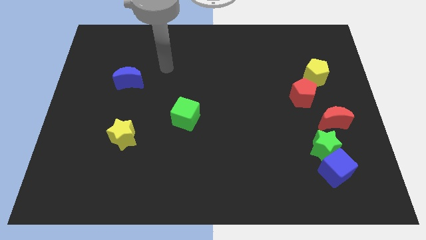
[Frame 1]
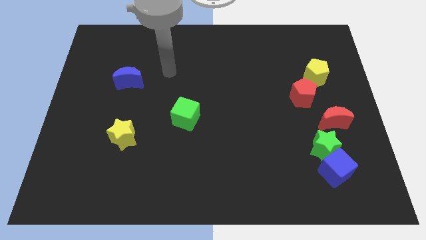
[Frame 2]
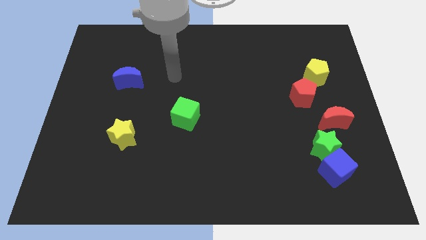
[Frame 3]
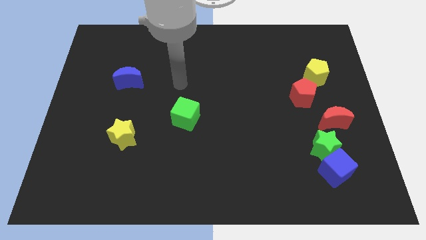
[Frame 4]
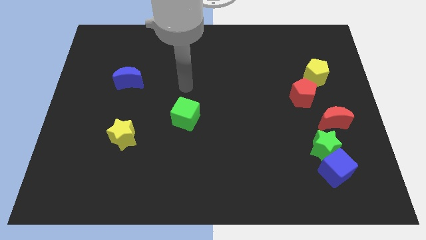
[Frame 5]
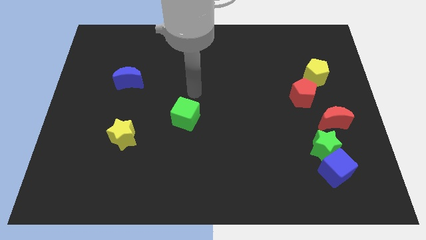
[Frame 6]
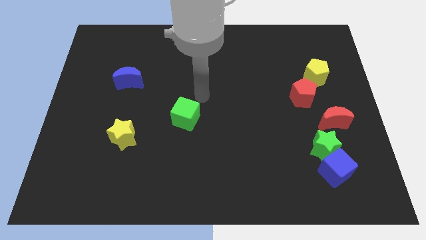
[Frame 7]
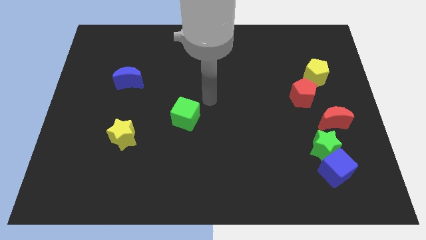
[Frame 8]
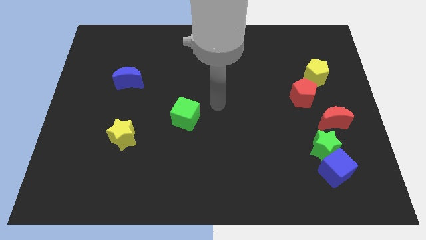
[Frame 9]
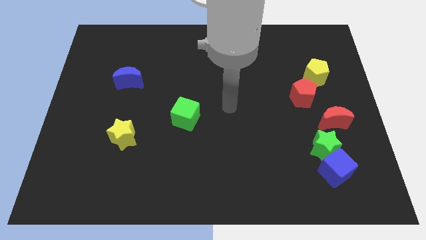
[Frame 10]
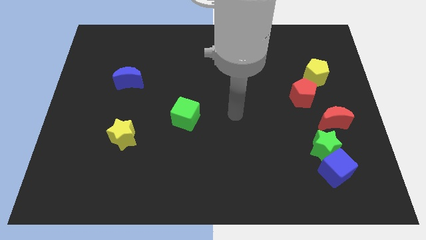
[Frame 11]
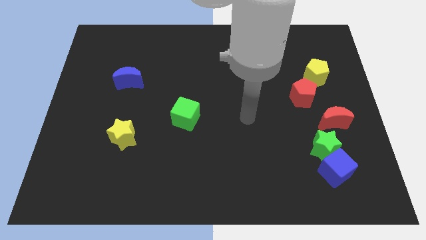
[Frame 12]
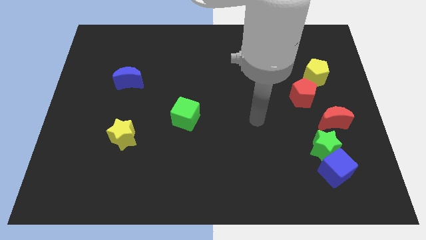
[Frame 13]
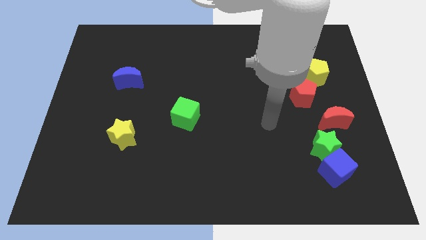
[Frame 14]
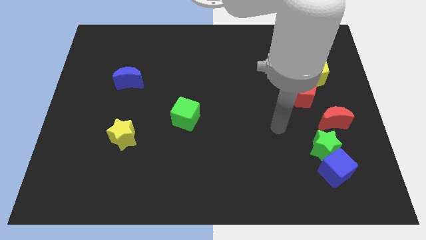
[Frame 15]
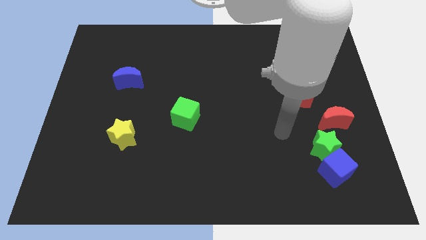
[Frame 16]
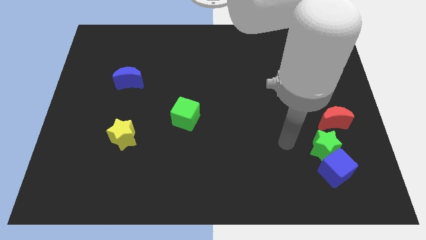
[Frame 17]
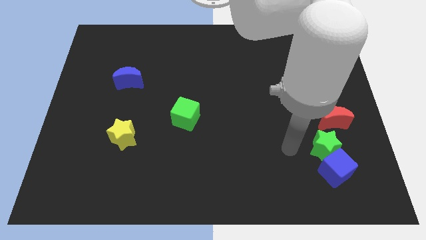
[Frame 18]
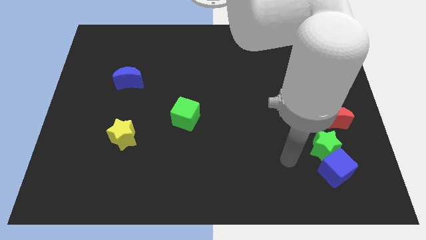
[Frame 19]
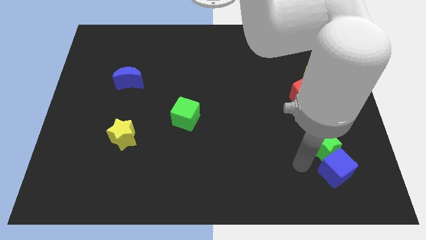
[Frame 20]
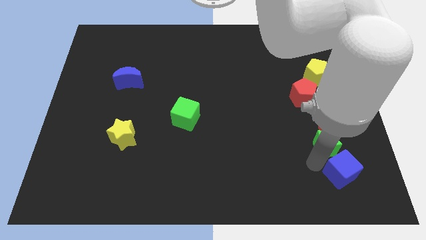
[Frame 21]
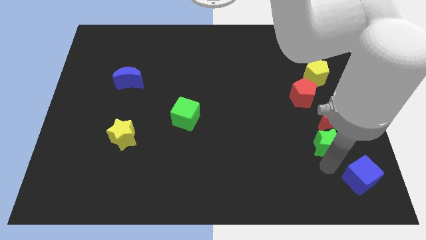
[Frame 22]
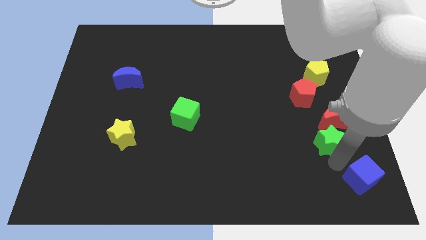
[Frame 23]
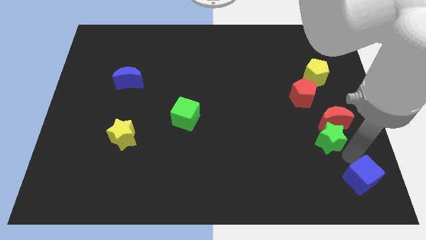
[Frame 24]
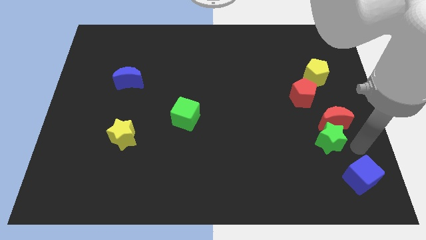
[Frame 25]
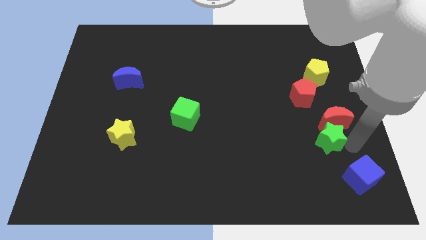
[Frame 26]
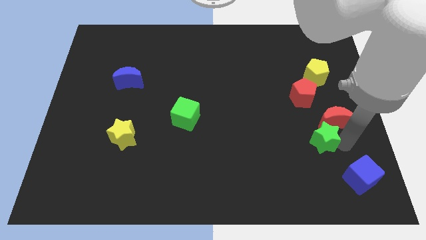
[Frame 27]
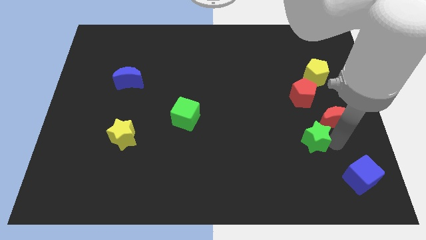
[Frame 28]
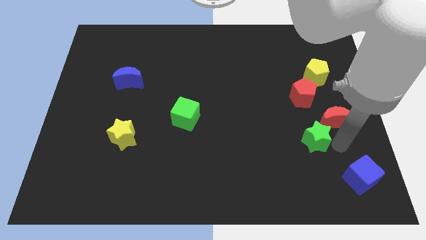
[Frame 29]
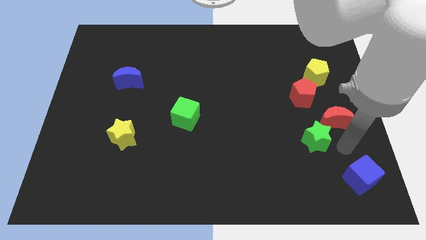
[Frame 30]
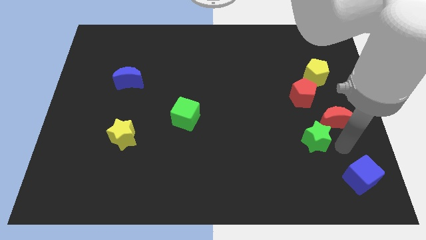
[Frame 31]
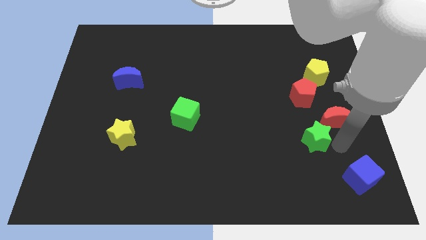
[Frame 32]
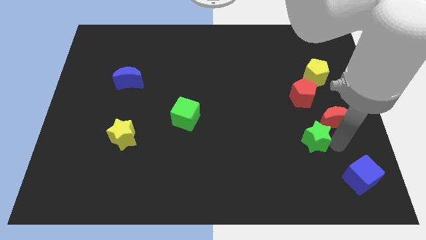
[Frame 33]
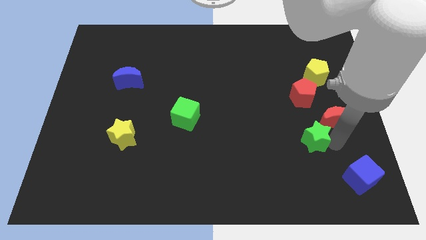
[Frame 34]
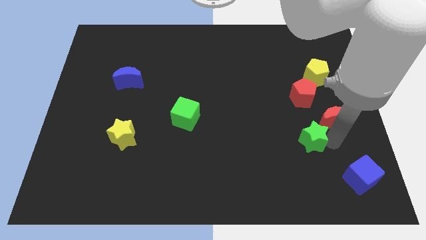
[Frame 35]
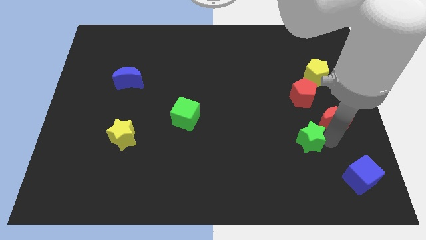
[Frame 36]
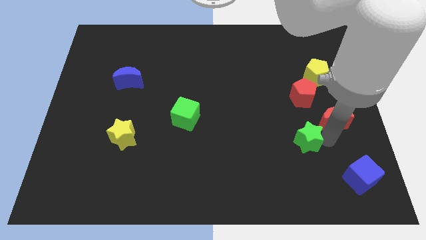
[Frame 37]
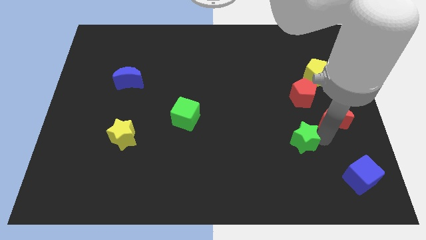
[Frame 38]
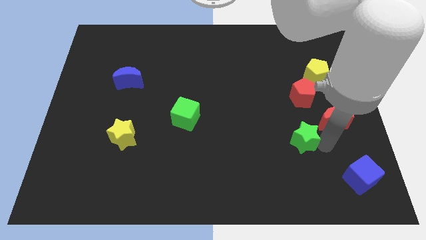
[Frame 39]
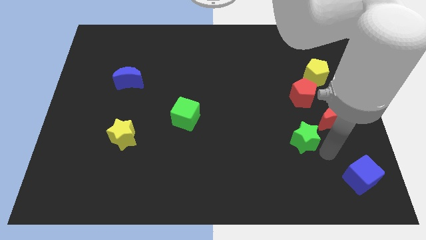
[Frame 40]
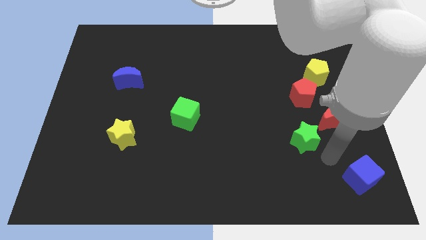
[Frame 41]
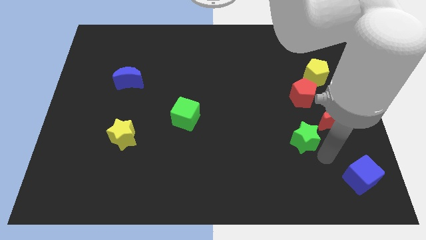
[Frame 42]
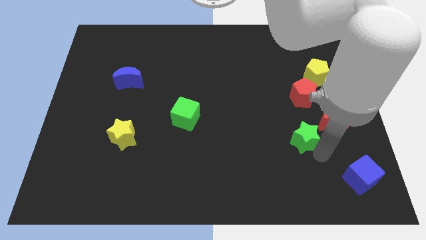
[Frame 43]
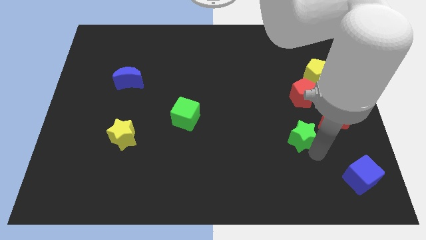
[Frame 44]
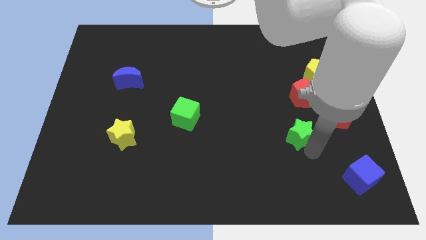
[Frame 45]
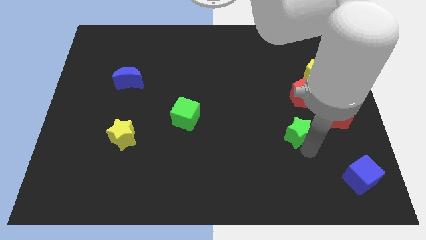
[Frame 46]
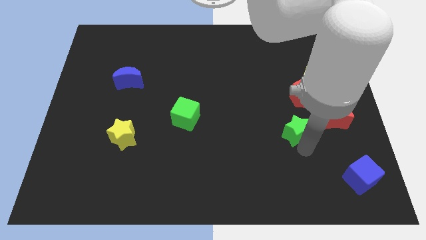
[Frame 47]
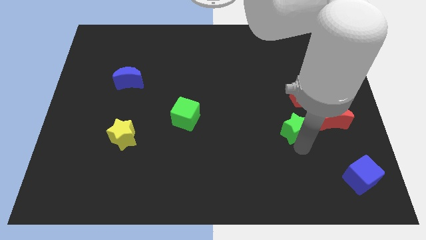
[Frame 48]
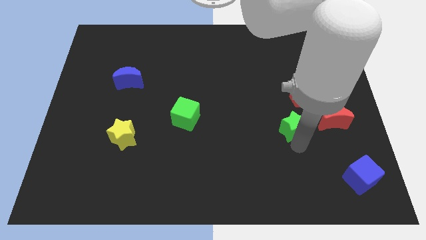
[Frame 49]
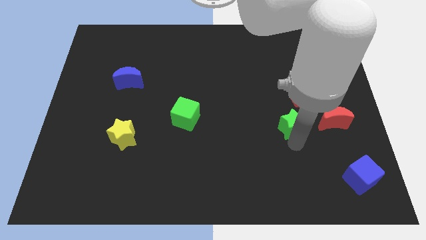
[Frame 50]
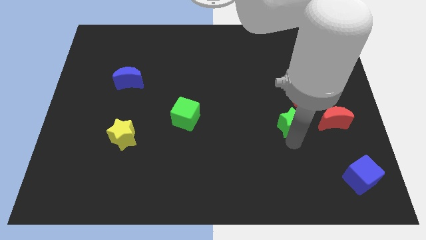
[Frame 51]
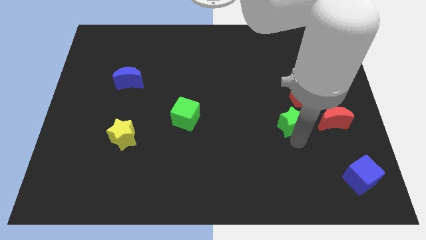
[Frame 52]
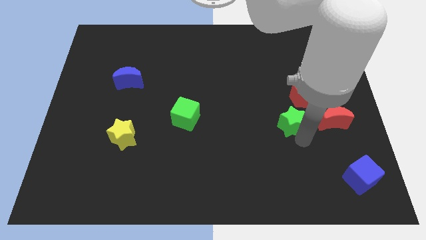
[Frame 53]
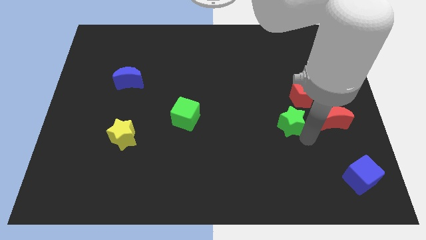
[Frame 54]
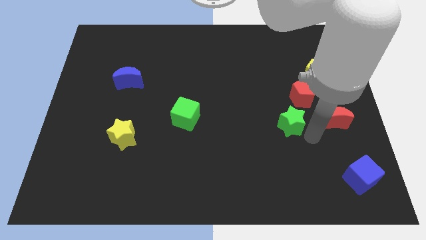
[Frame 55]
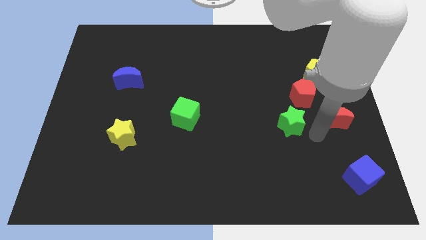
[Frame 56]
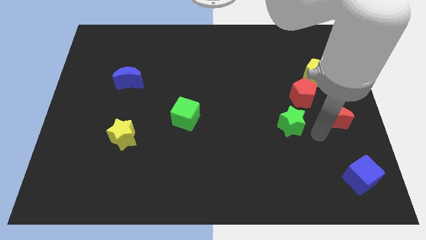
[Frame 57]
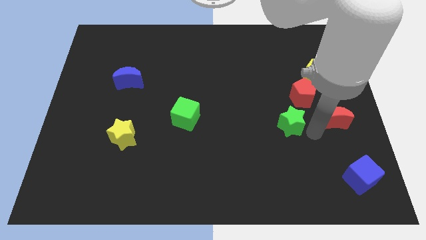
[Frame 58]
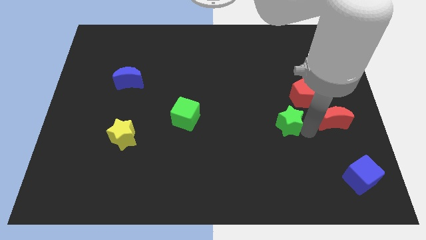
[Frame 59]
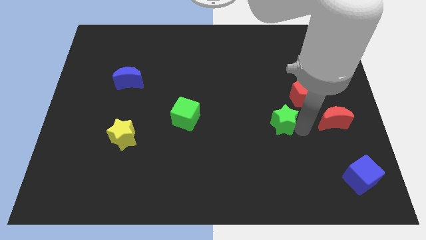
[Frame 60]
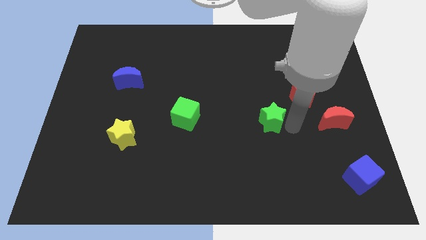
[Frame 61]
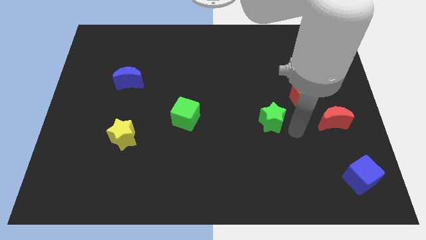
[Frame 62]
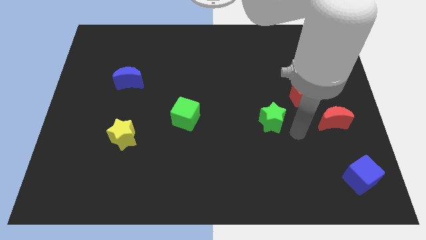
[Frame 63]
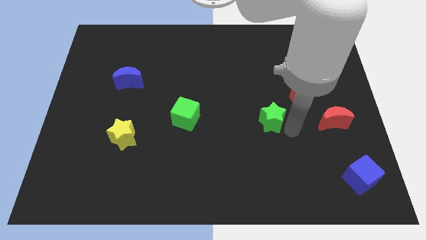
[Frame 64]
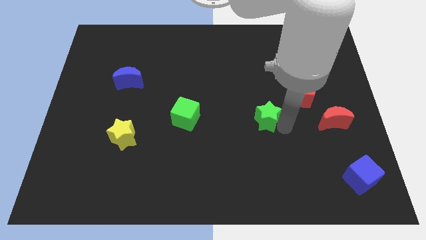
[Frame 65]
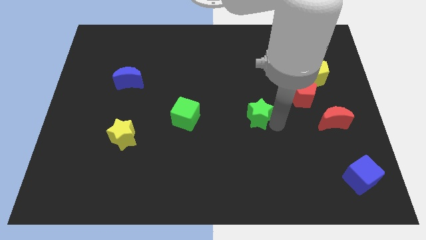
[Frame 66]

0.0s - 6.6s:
put the green star to the center of the board
